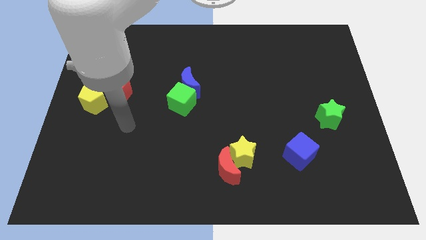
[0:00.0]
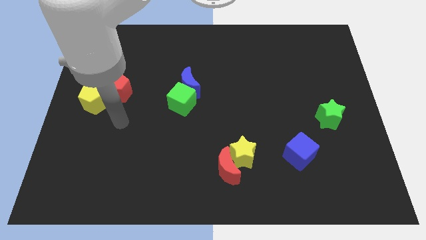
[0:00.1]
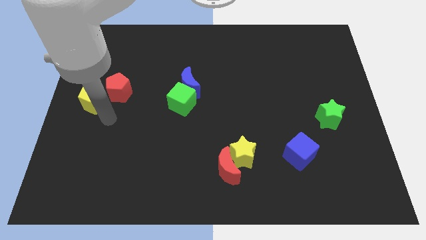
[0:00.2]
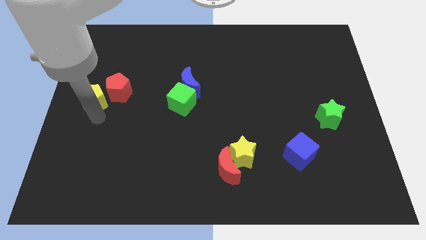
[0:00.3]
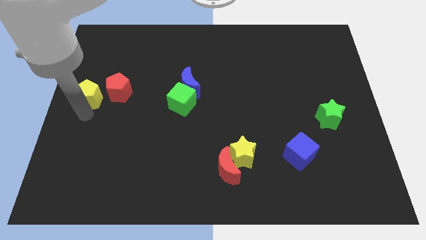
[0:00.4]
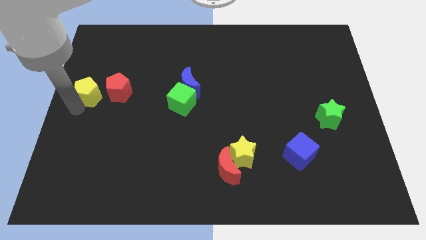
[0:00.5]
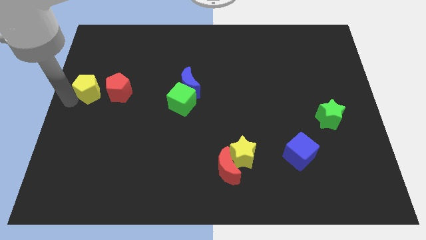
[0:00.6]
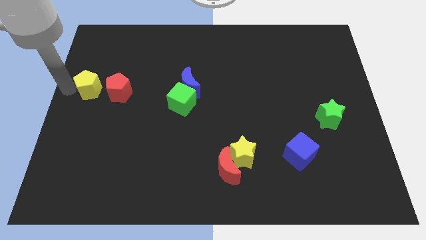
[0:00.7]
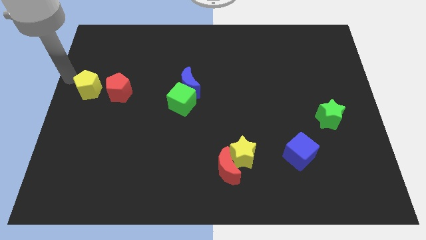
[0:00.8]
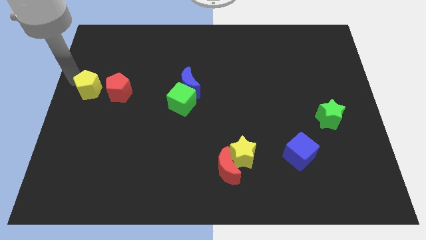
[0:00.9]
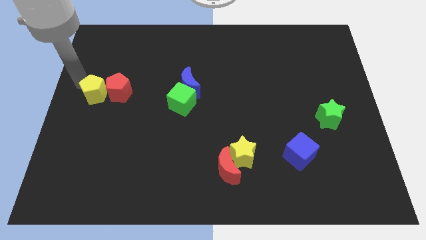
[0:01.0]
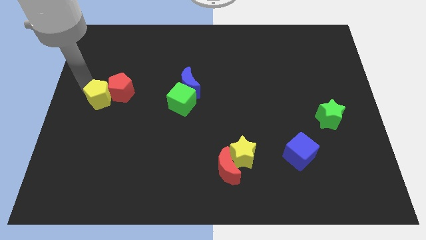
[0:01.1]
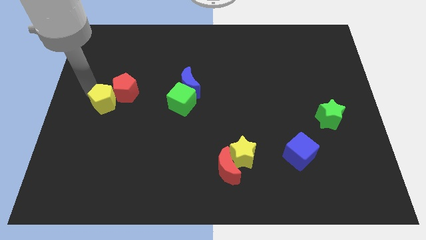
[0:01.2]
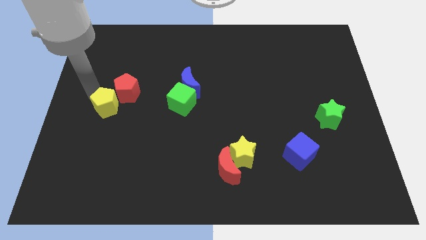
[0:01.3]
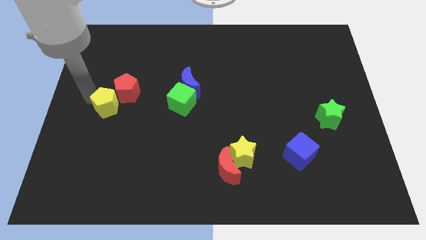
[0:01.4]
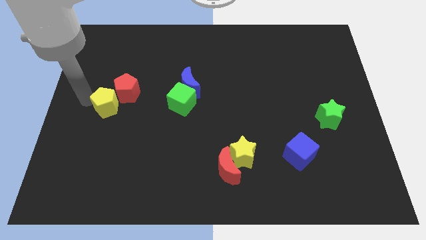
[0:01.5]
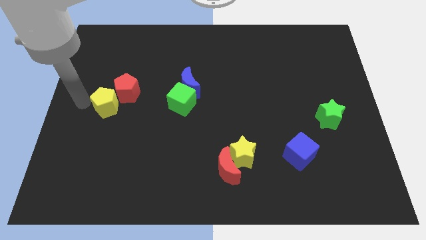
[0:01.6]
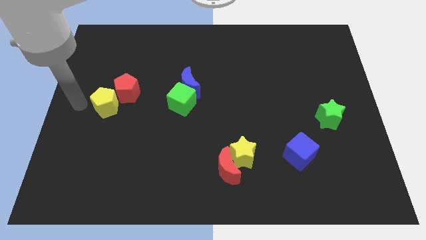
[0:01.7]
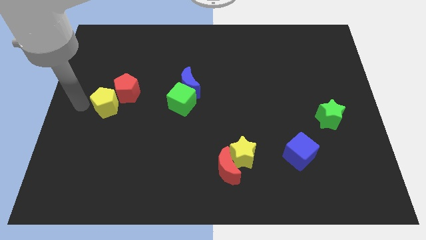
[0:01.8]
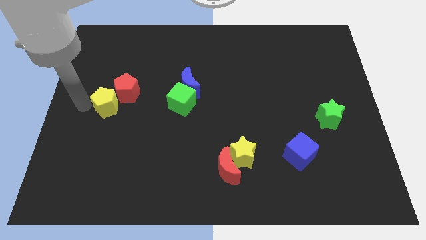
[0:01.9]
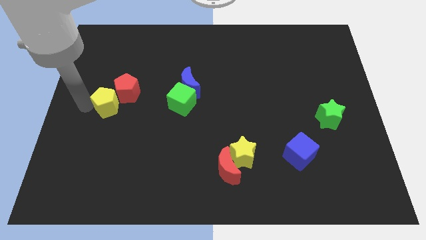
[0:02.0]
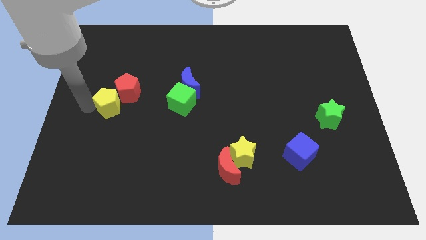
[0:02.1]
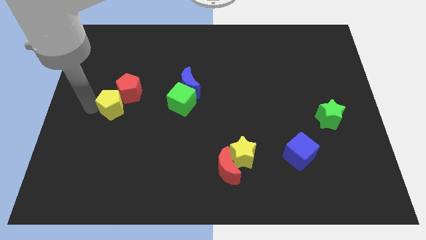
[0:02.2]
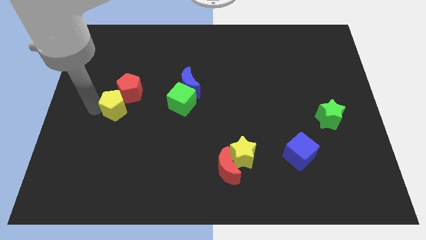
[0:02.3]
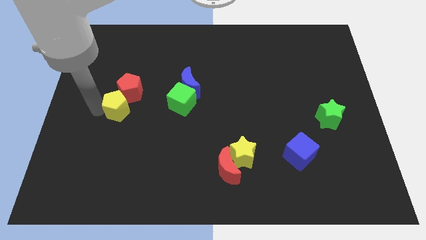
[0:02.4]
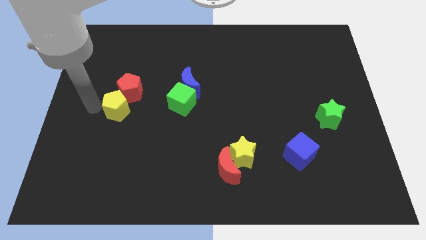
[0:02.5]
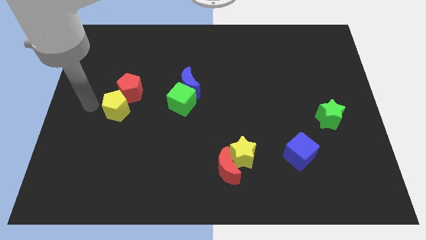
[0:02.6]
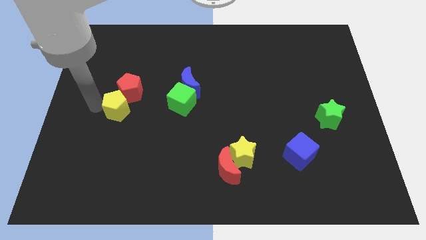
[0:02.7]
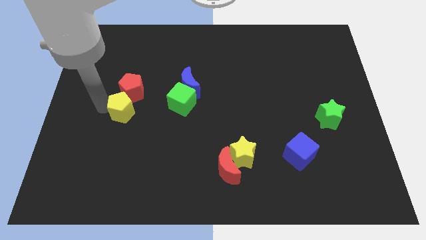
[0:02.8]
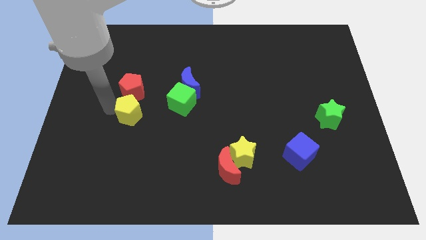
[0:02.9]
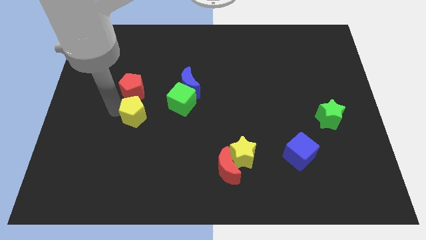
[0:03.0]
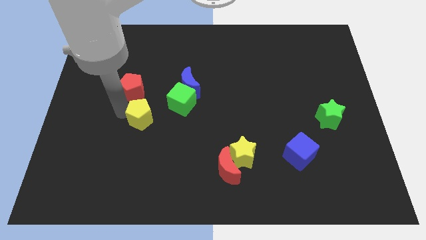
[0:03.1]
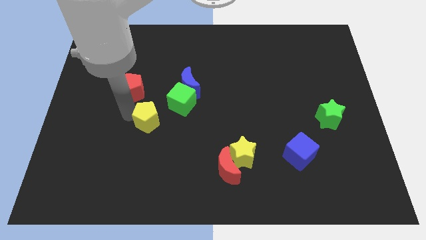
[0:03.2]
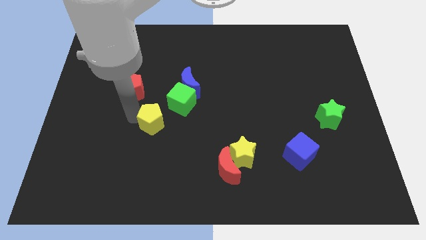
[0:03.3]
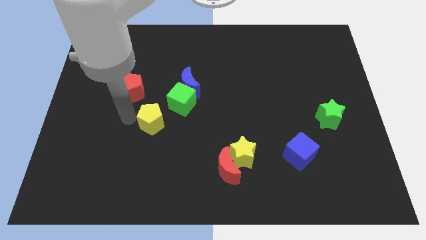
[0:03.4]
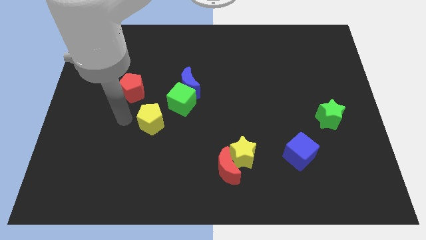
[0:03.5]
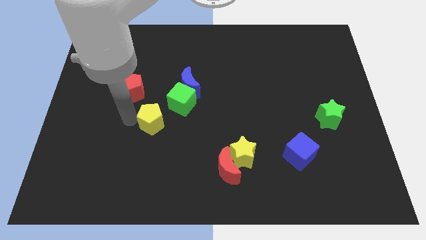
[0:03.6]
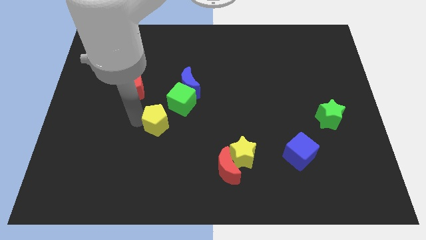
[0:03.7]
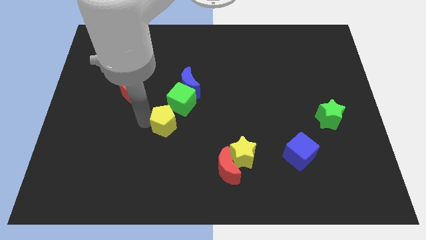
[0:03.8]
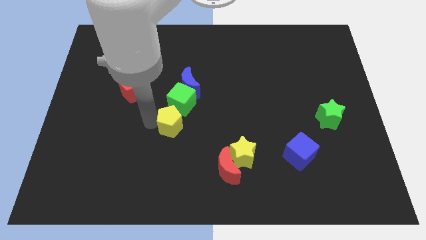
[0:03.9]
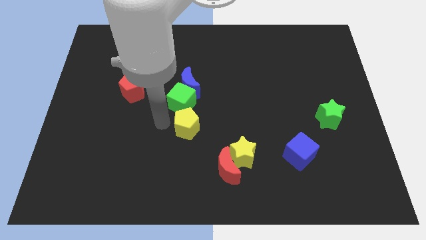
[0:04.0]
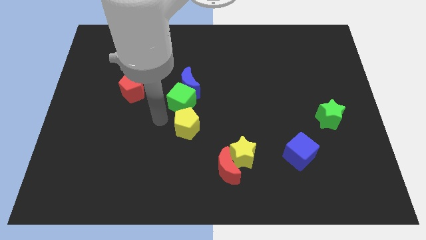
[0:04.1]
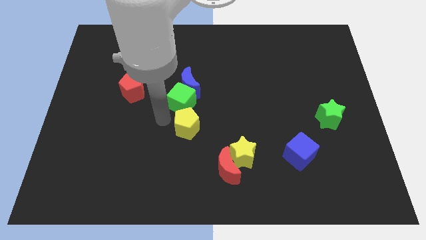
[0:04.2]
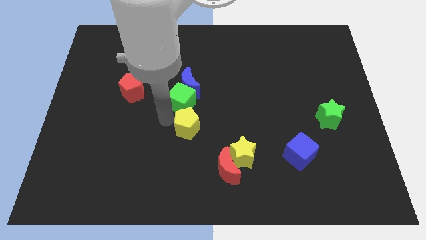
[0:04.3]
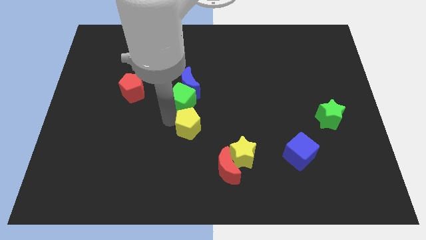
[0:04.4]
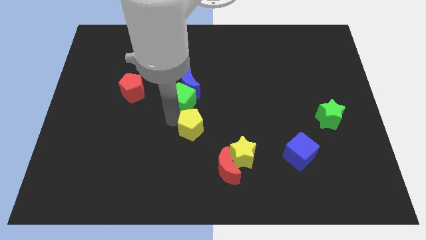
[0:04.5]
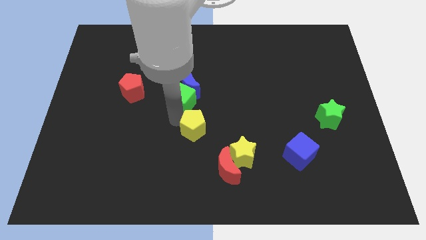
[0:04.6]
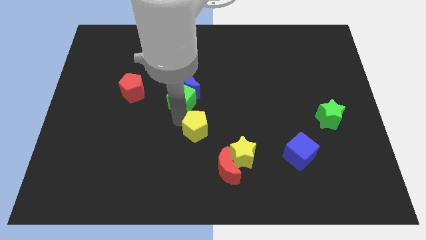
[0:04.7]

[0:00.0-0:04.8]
slide the yellow pentagon to the top left of the yellow star

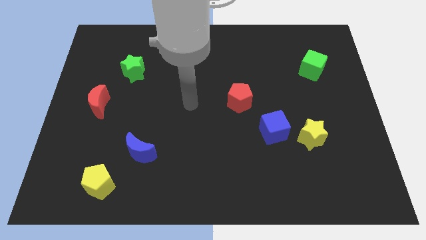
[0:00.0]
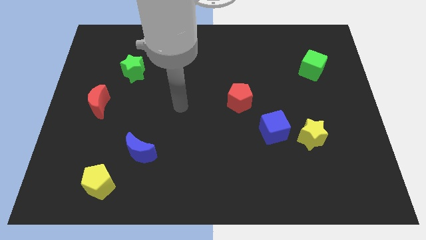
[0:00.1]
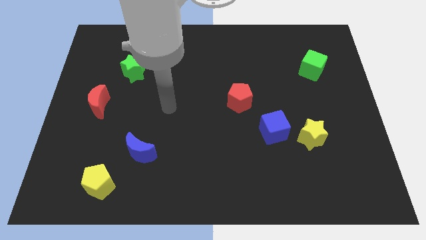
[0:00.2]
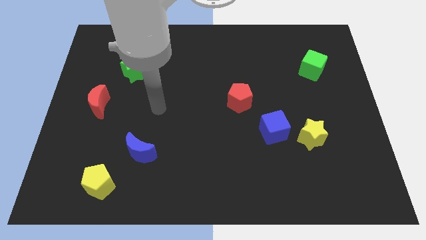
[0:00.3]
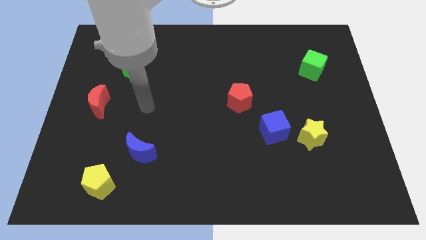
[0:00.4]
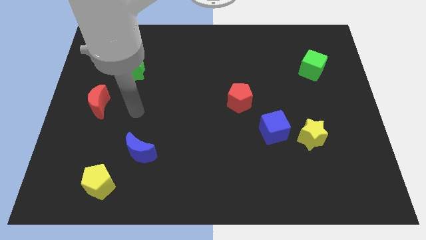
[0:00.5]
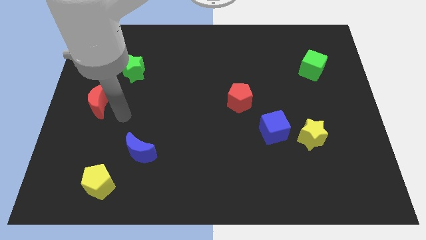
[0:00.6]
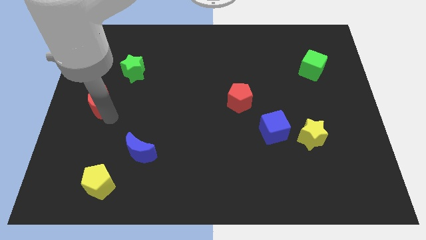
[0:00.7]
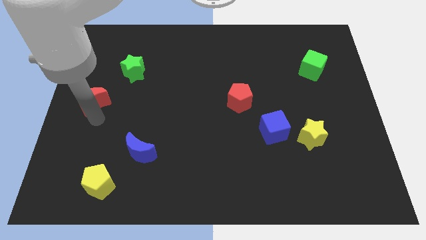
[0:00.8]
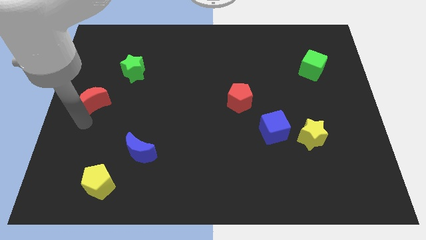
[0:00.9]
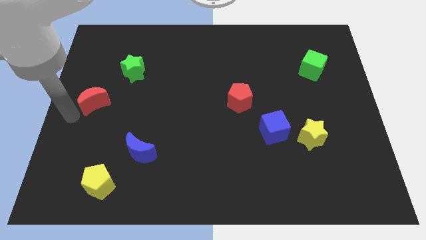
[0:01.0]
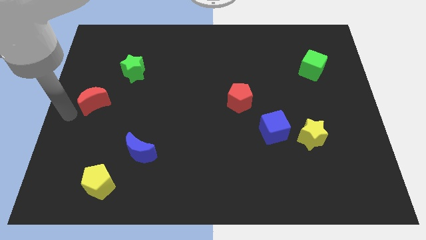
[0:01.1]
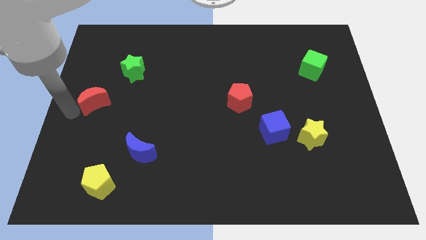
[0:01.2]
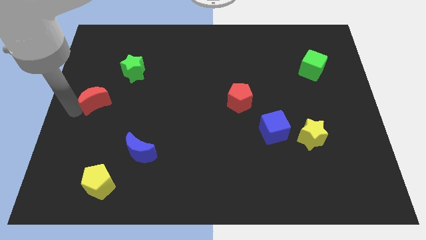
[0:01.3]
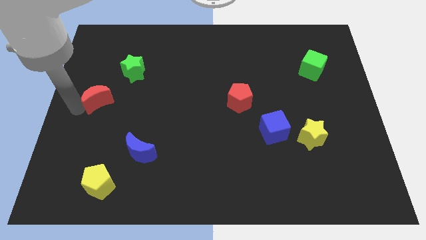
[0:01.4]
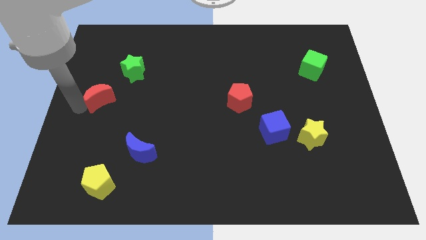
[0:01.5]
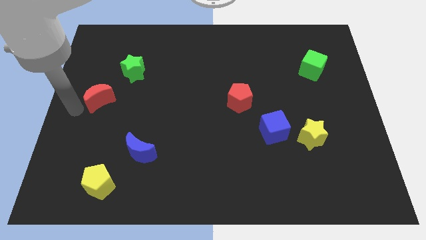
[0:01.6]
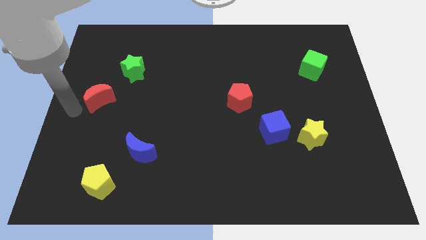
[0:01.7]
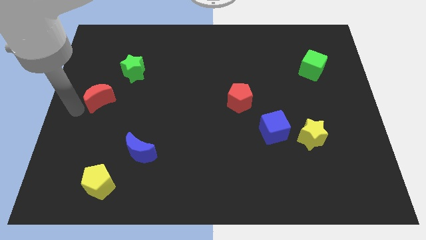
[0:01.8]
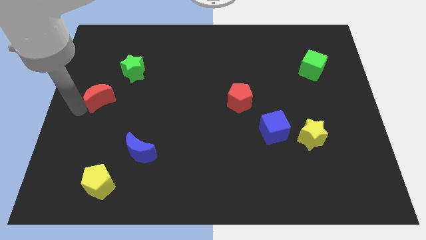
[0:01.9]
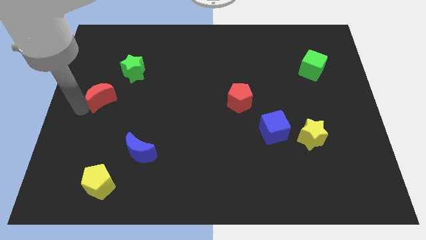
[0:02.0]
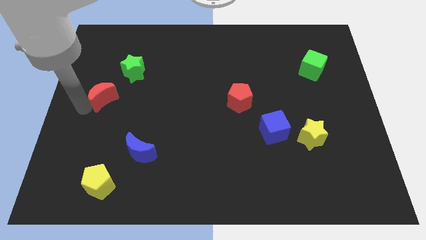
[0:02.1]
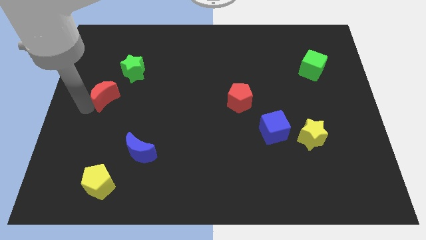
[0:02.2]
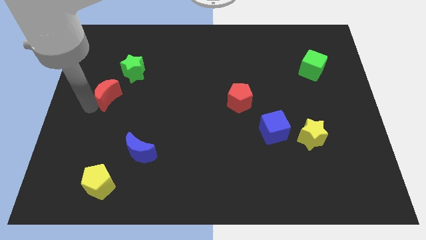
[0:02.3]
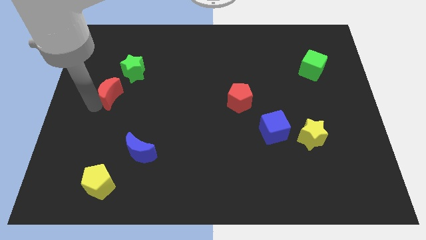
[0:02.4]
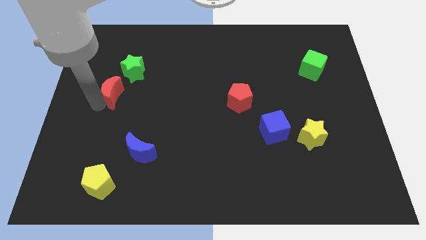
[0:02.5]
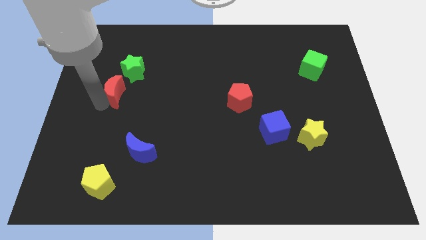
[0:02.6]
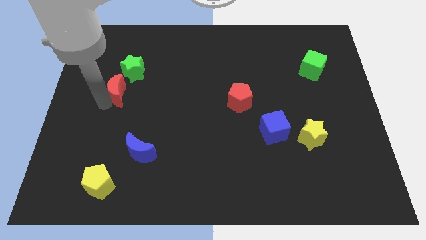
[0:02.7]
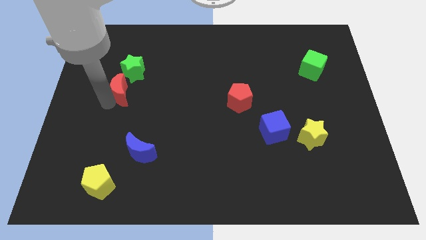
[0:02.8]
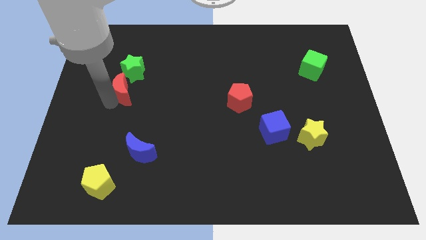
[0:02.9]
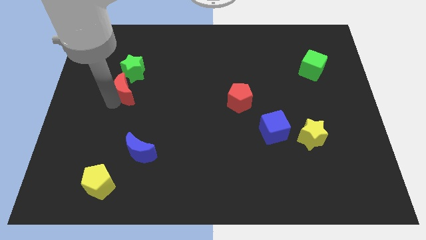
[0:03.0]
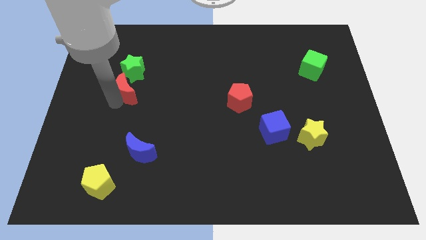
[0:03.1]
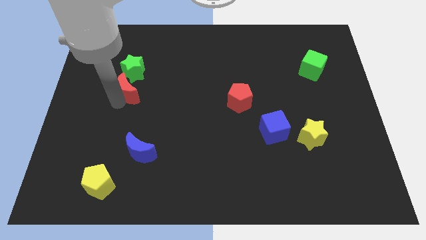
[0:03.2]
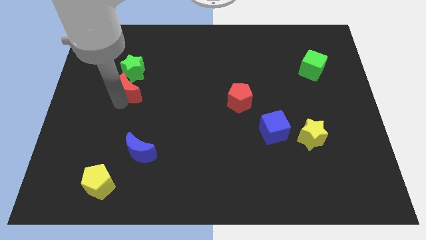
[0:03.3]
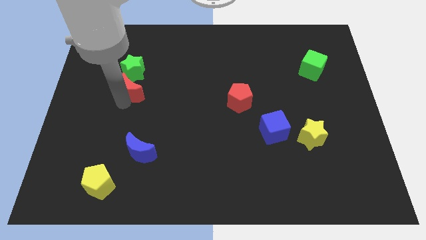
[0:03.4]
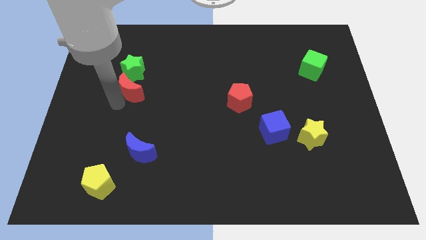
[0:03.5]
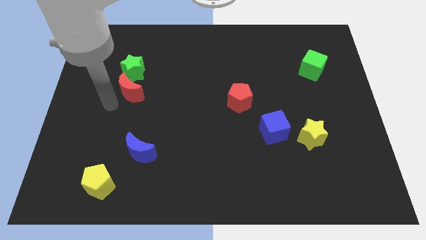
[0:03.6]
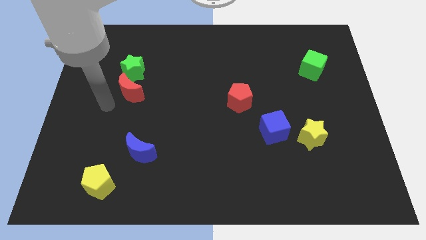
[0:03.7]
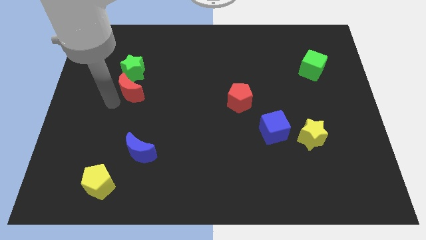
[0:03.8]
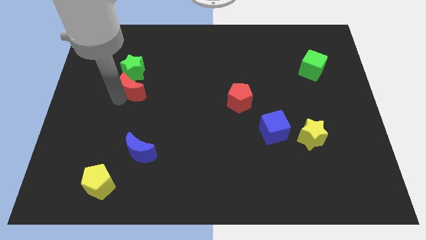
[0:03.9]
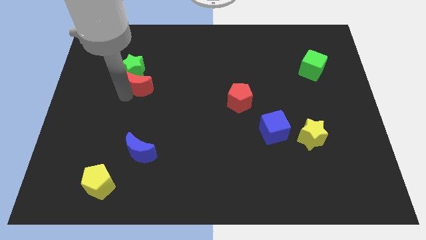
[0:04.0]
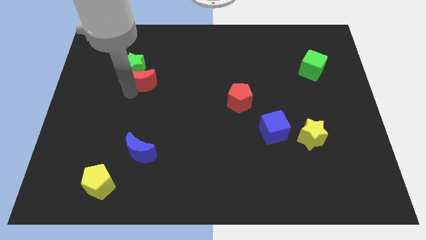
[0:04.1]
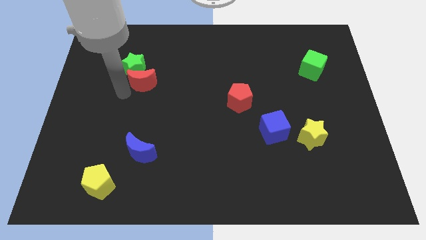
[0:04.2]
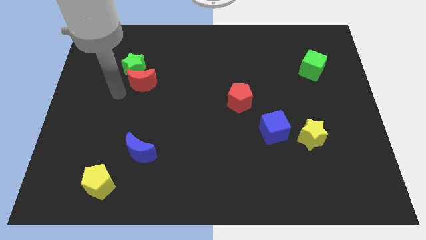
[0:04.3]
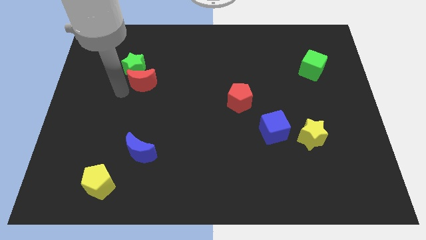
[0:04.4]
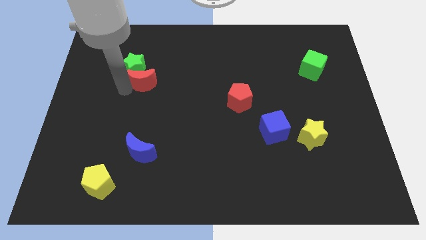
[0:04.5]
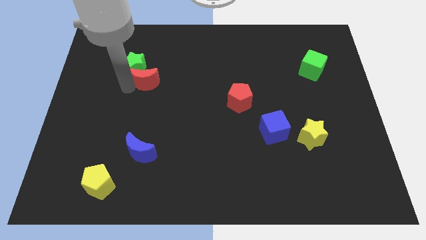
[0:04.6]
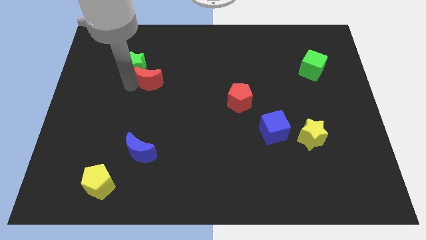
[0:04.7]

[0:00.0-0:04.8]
slide the red moon just right of the green star
